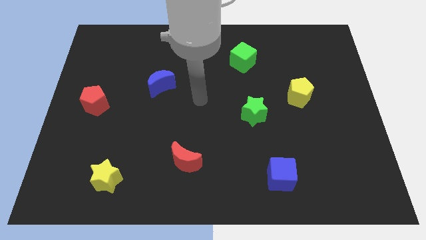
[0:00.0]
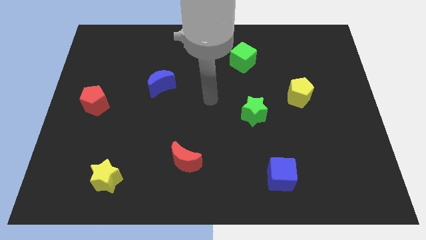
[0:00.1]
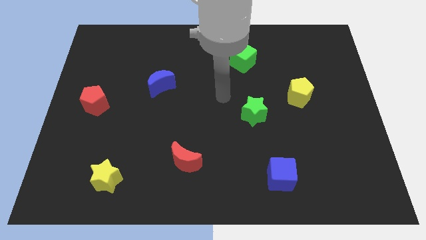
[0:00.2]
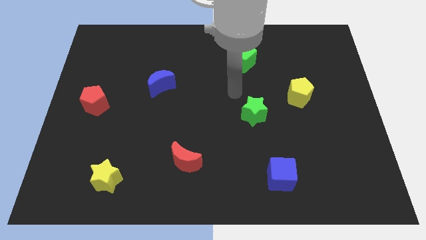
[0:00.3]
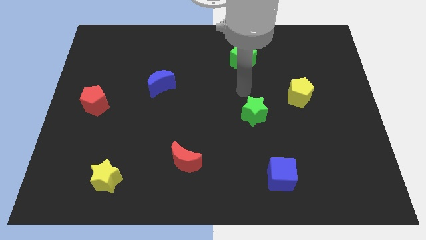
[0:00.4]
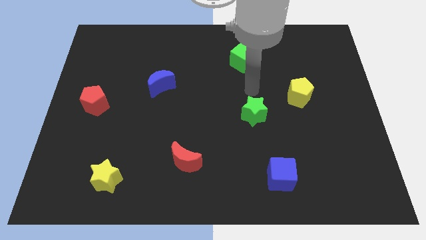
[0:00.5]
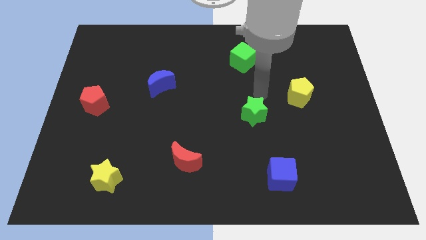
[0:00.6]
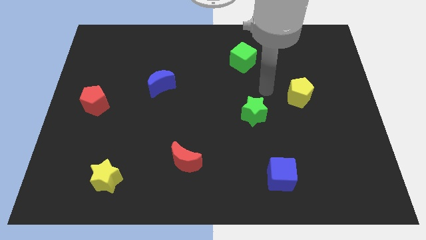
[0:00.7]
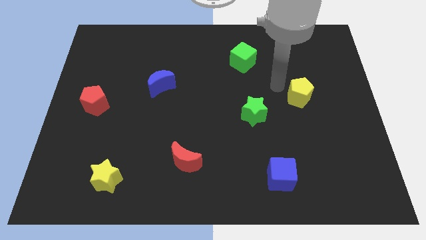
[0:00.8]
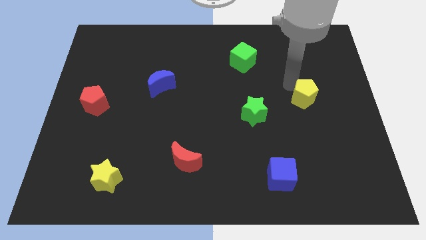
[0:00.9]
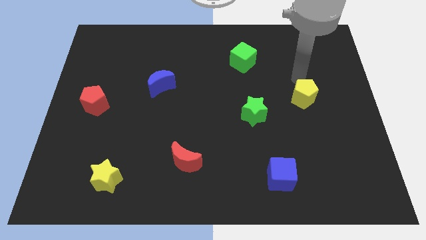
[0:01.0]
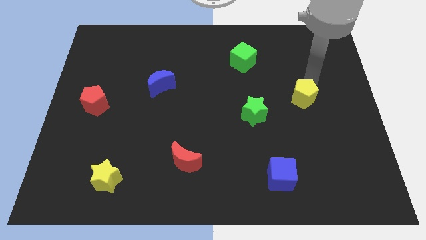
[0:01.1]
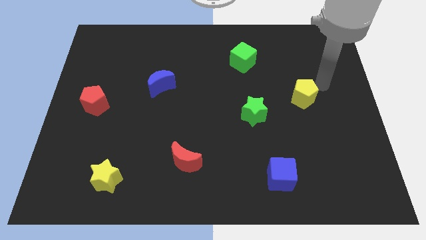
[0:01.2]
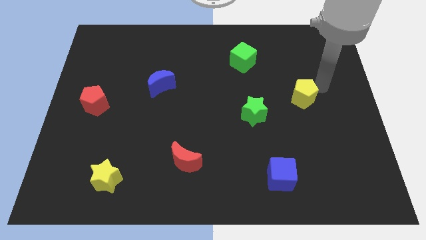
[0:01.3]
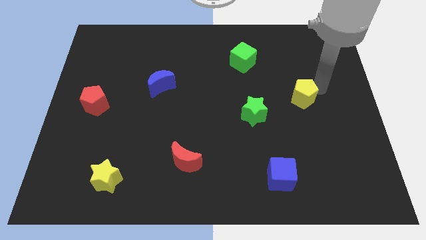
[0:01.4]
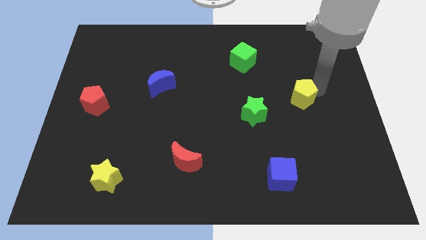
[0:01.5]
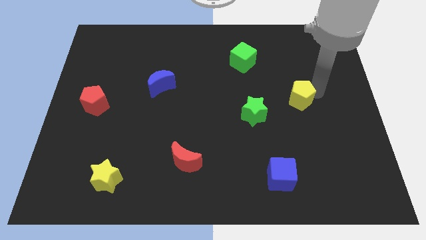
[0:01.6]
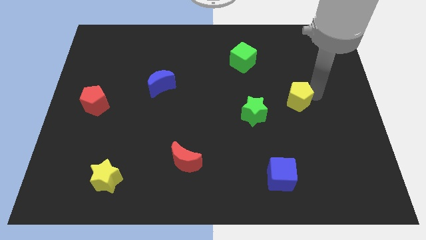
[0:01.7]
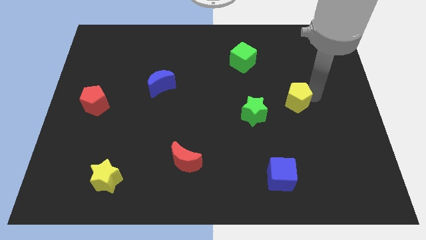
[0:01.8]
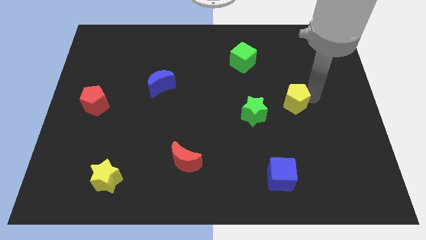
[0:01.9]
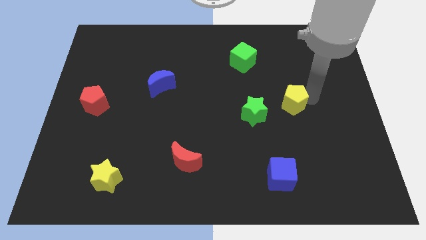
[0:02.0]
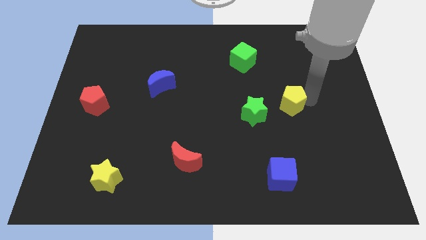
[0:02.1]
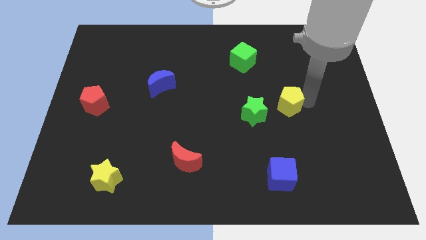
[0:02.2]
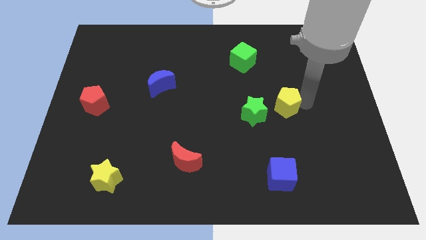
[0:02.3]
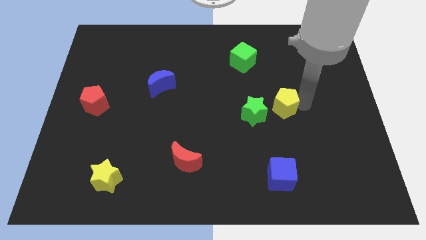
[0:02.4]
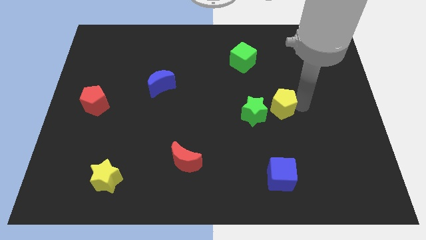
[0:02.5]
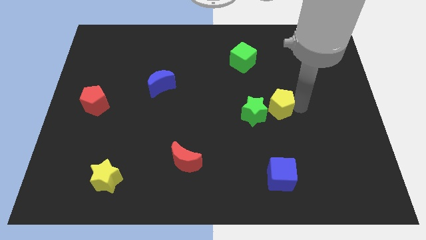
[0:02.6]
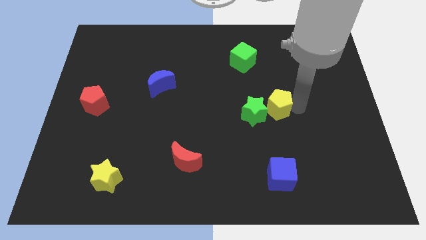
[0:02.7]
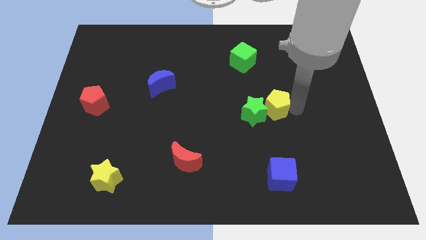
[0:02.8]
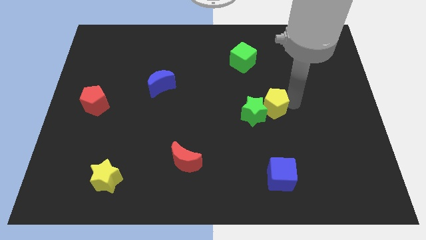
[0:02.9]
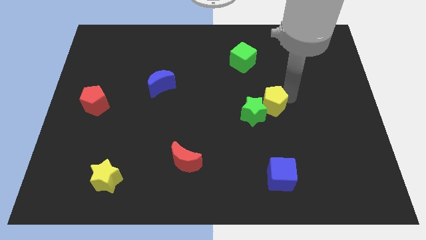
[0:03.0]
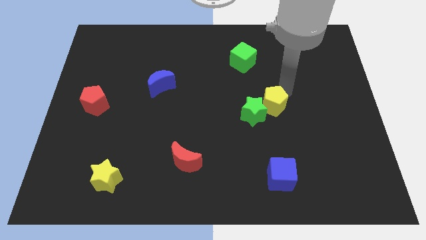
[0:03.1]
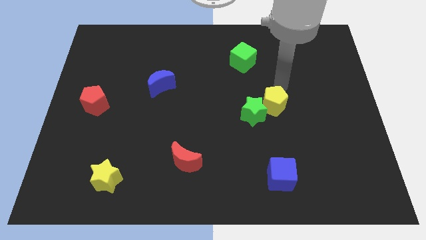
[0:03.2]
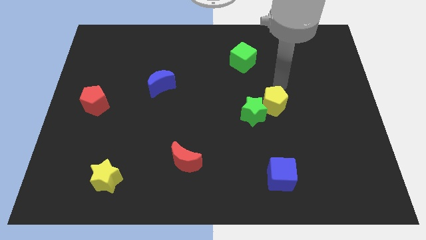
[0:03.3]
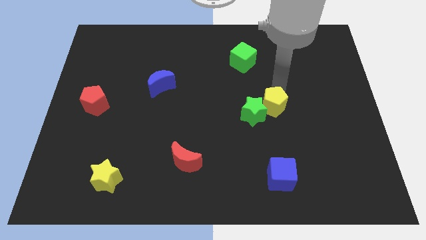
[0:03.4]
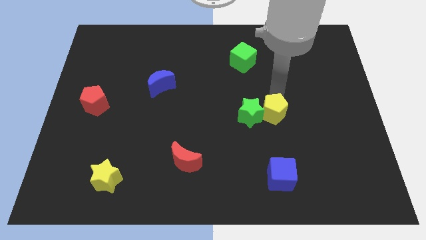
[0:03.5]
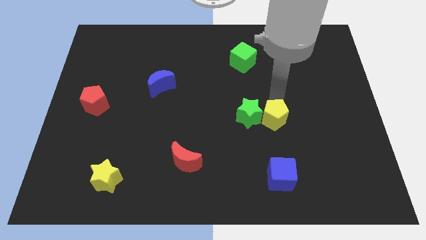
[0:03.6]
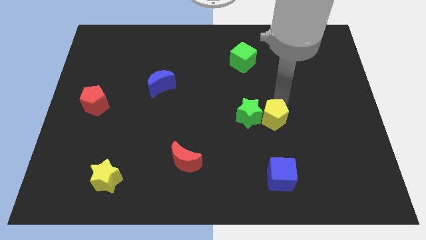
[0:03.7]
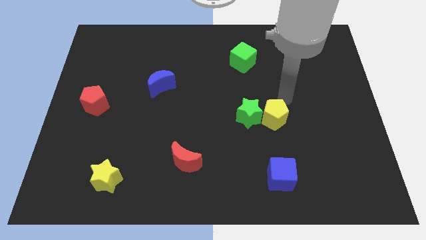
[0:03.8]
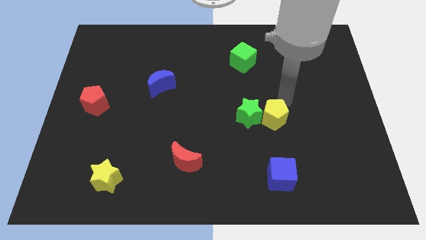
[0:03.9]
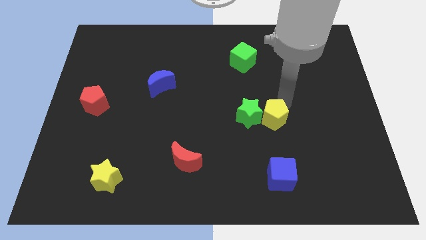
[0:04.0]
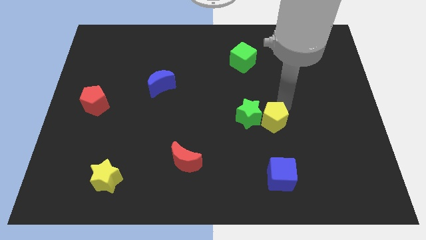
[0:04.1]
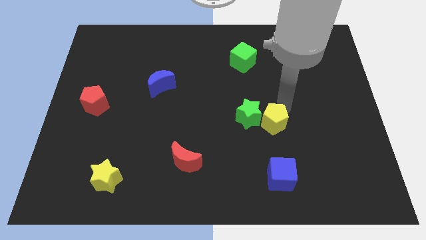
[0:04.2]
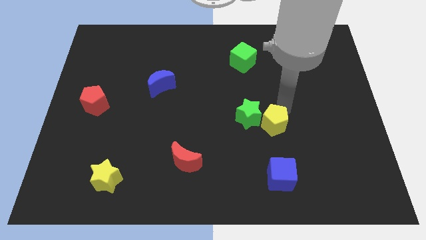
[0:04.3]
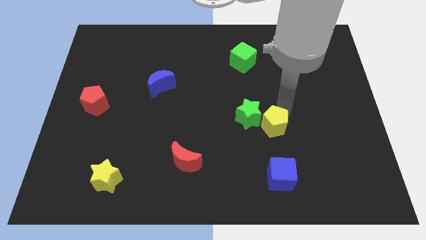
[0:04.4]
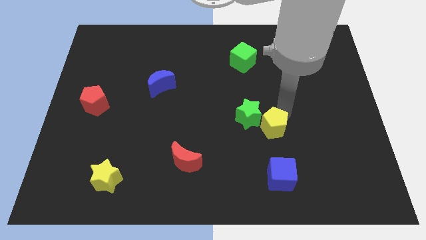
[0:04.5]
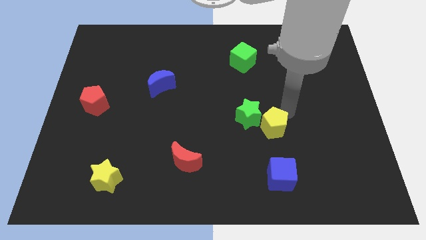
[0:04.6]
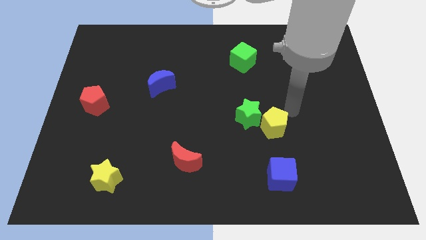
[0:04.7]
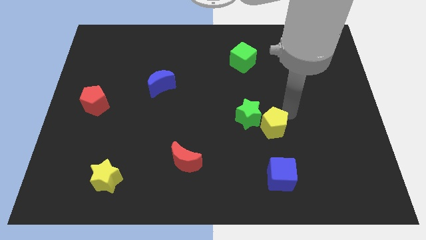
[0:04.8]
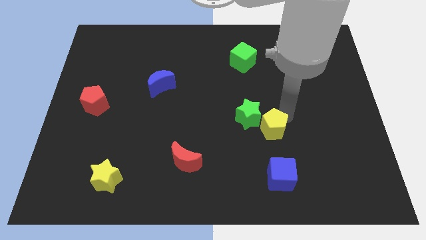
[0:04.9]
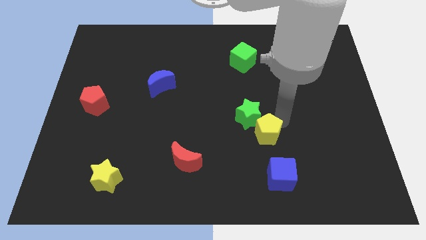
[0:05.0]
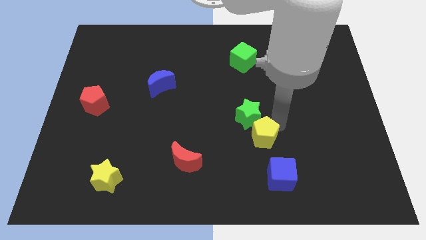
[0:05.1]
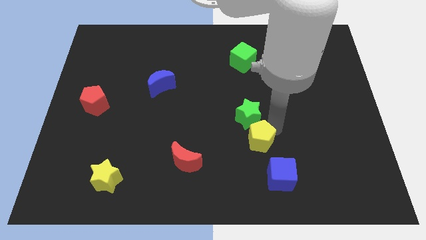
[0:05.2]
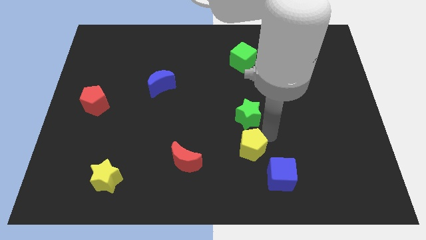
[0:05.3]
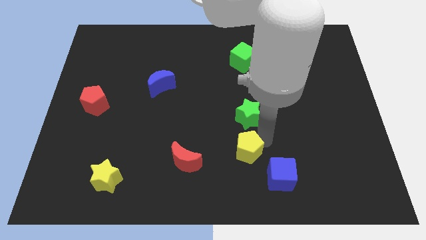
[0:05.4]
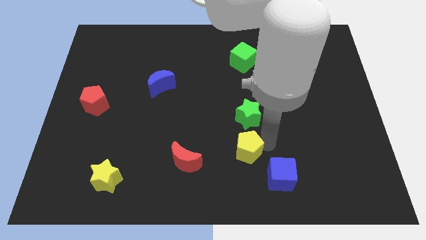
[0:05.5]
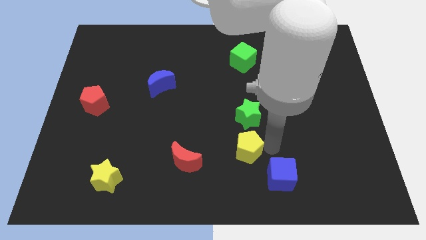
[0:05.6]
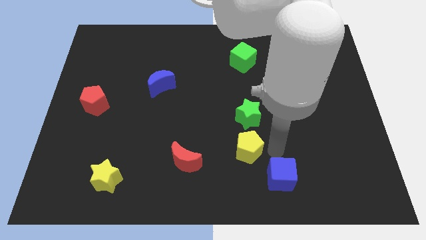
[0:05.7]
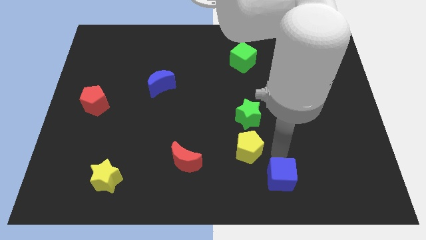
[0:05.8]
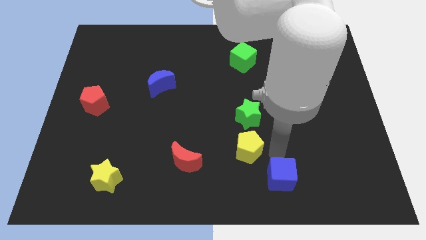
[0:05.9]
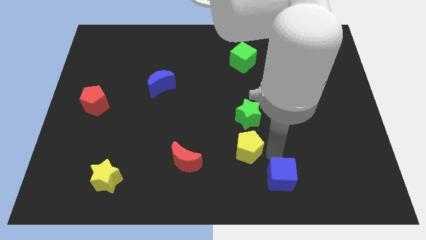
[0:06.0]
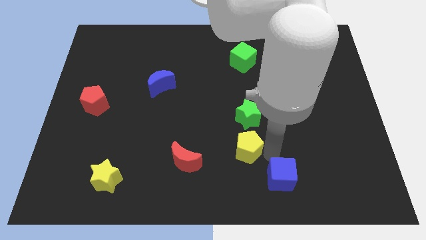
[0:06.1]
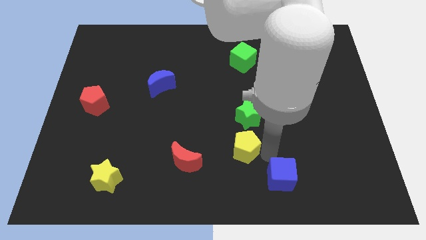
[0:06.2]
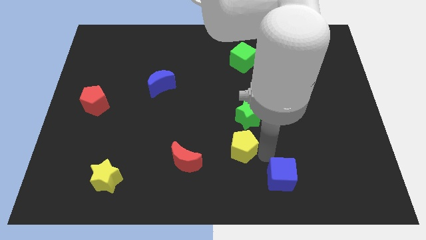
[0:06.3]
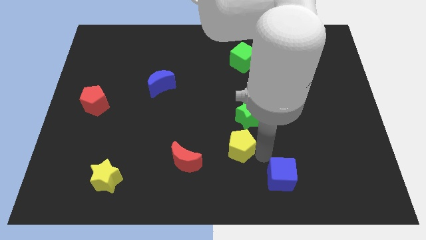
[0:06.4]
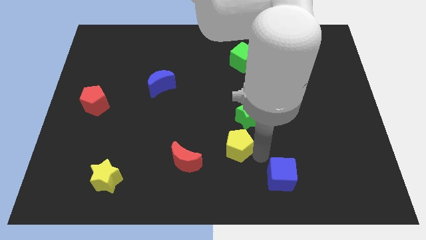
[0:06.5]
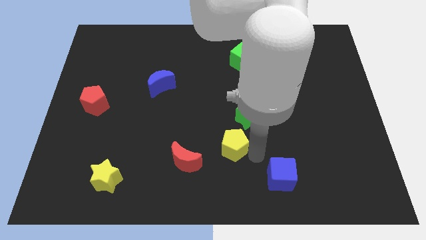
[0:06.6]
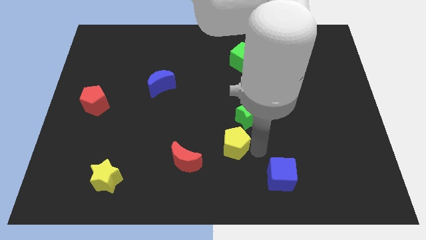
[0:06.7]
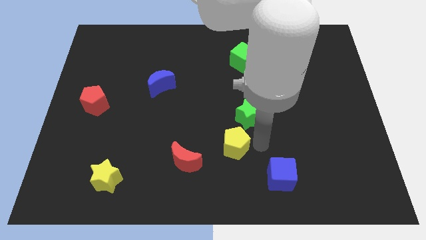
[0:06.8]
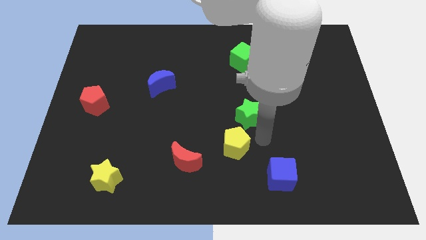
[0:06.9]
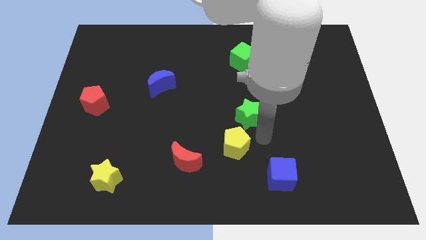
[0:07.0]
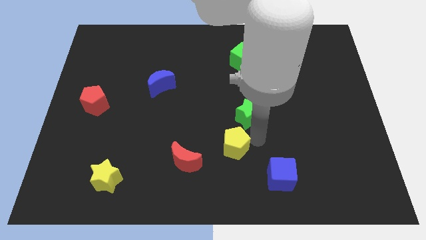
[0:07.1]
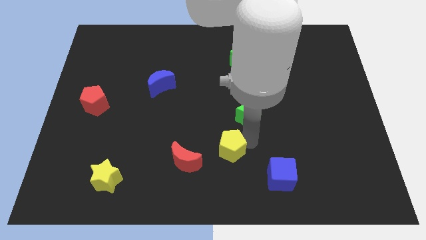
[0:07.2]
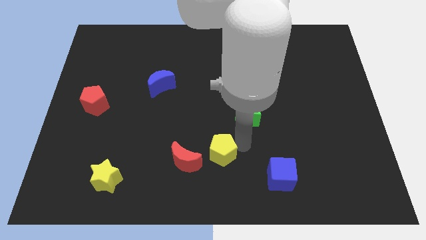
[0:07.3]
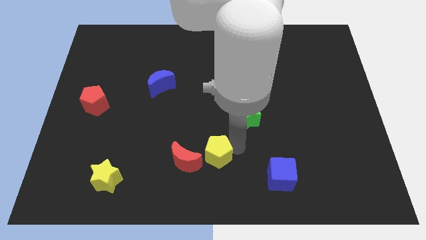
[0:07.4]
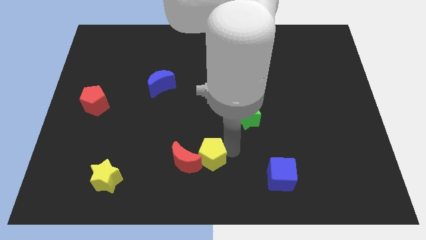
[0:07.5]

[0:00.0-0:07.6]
move the yellow pentagon close to the red moon

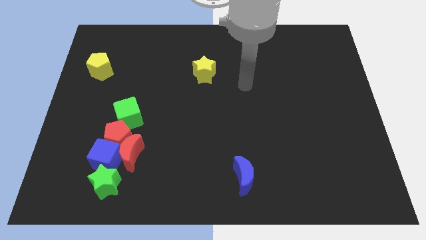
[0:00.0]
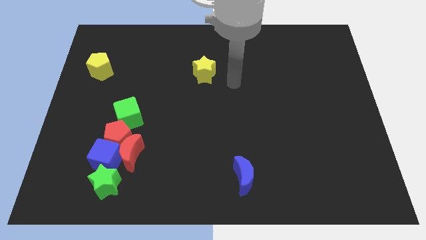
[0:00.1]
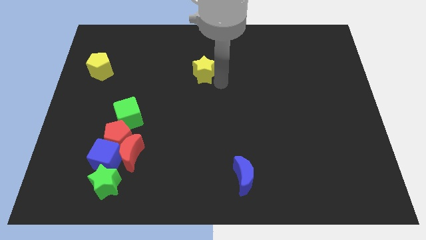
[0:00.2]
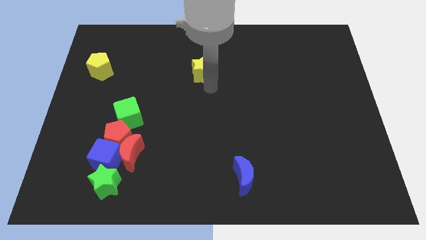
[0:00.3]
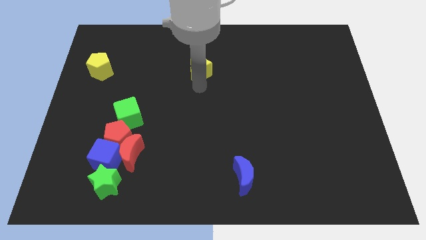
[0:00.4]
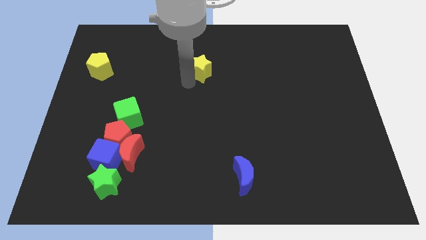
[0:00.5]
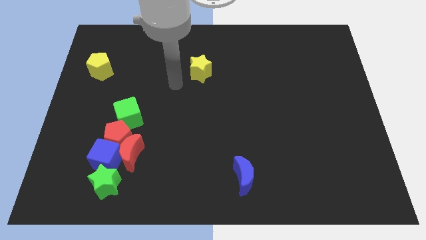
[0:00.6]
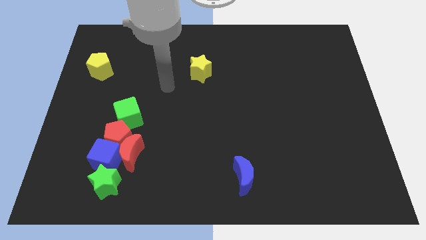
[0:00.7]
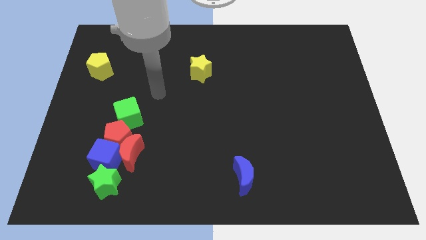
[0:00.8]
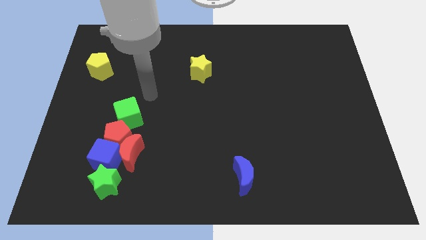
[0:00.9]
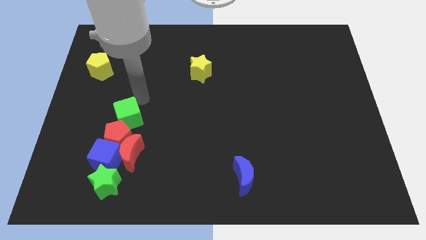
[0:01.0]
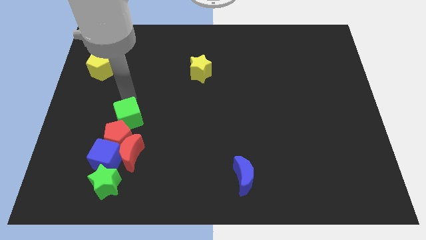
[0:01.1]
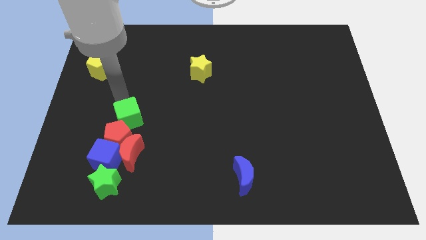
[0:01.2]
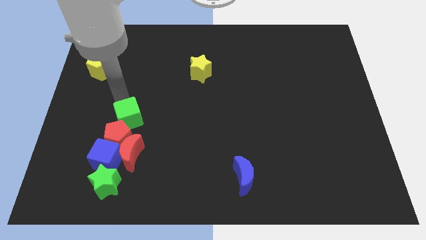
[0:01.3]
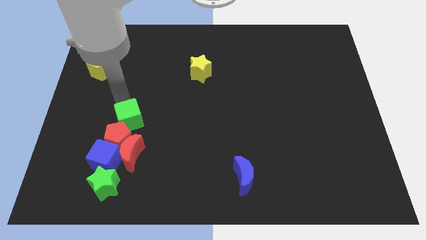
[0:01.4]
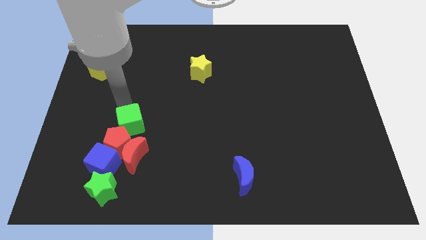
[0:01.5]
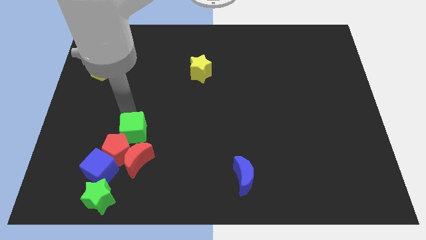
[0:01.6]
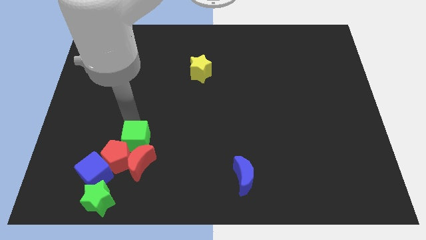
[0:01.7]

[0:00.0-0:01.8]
push the green cube next to the red moon
